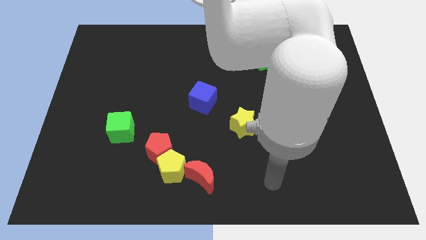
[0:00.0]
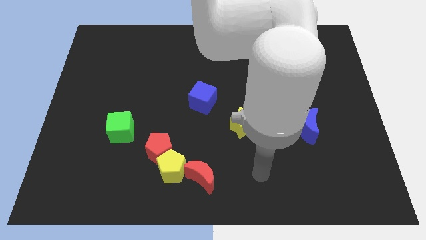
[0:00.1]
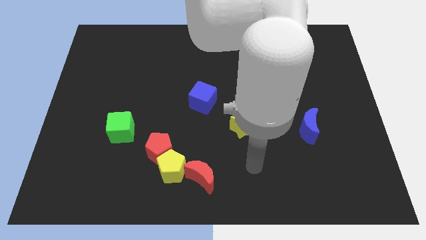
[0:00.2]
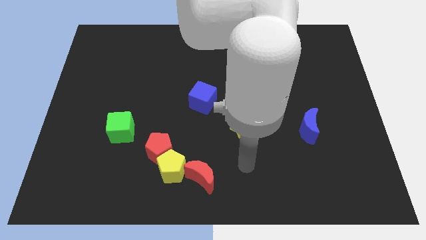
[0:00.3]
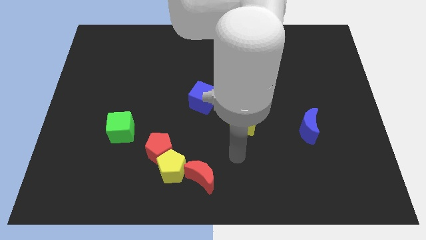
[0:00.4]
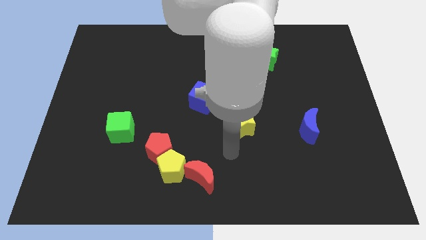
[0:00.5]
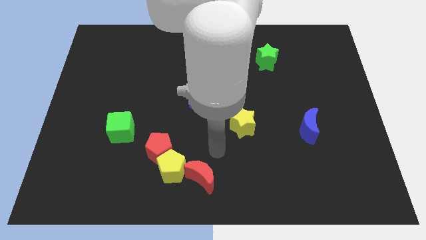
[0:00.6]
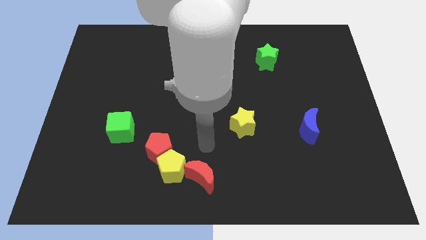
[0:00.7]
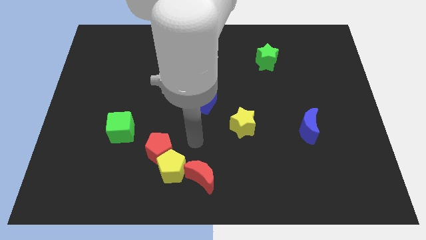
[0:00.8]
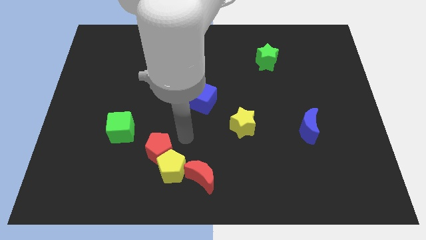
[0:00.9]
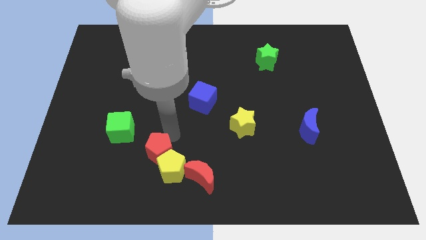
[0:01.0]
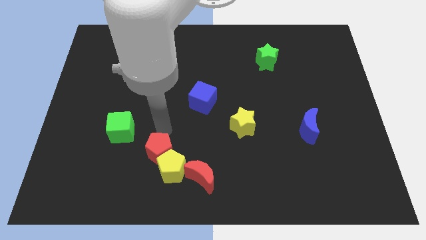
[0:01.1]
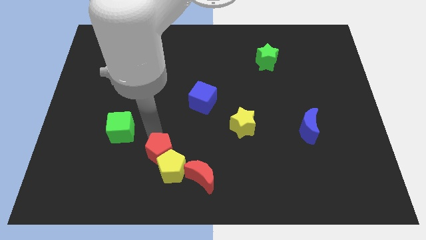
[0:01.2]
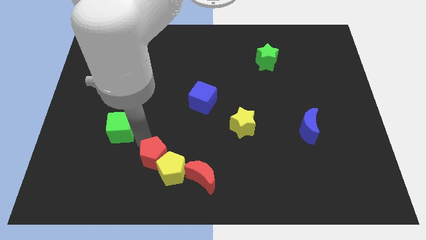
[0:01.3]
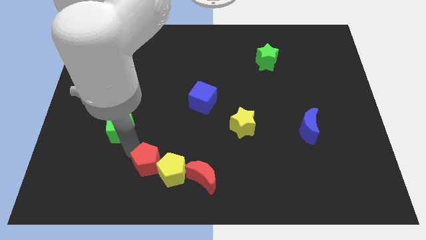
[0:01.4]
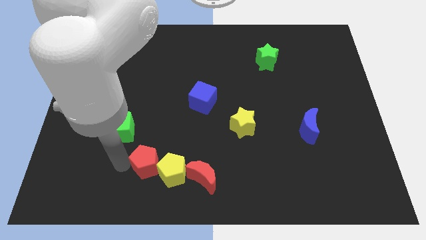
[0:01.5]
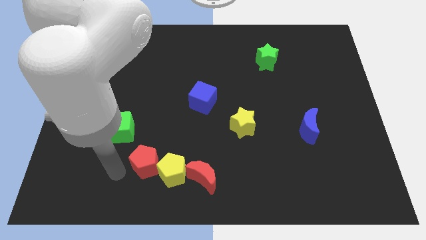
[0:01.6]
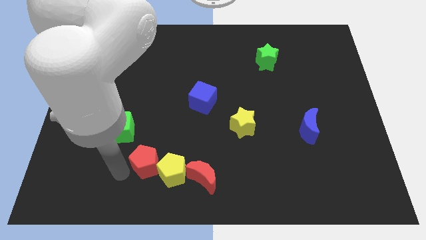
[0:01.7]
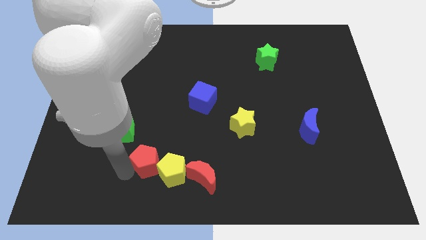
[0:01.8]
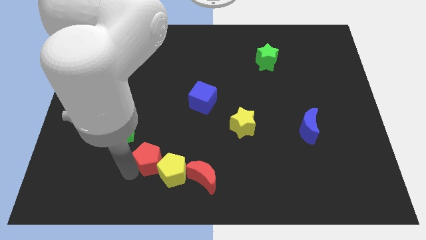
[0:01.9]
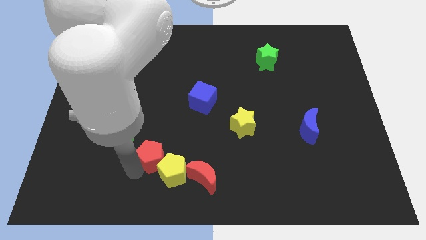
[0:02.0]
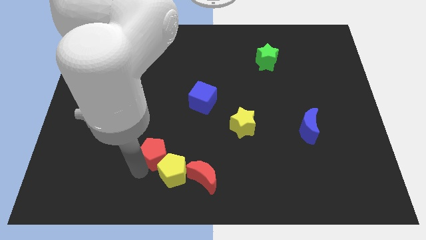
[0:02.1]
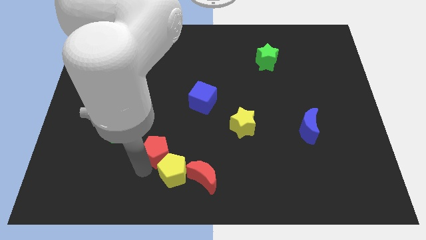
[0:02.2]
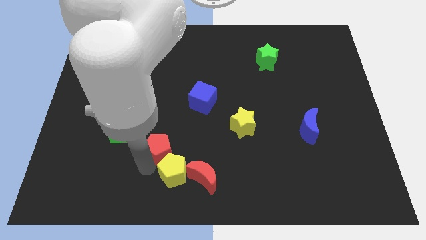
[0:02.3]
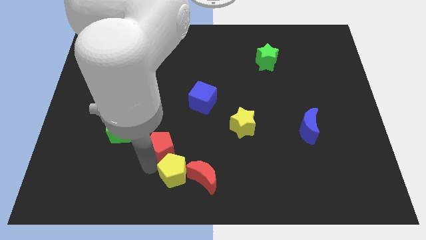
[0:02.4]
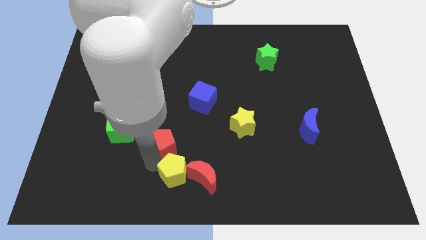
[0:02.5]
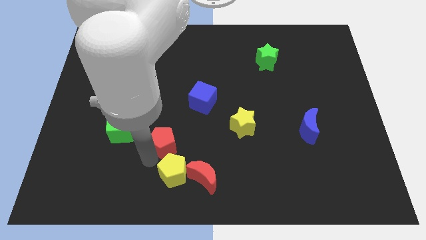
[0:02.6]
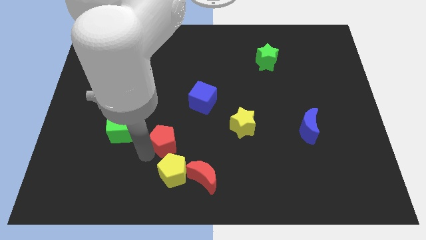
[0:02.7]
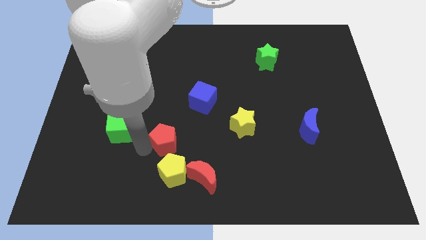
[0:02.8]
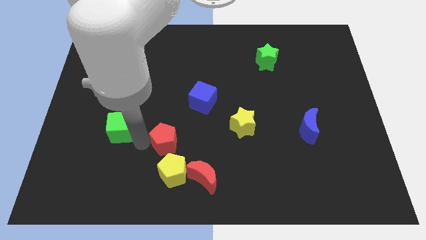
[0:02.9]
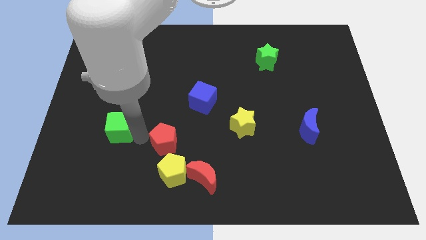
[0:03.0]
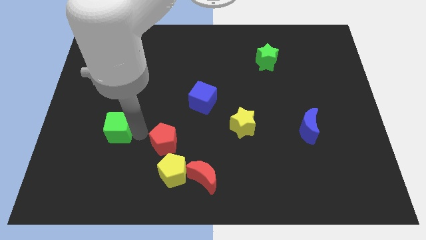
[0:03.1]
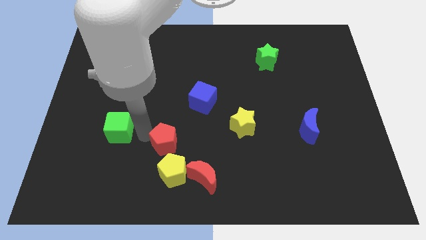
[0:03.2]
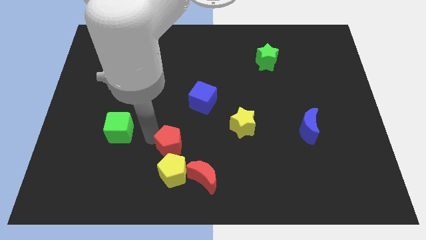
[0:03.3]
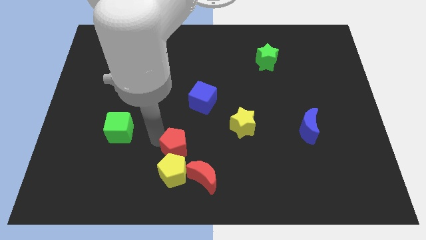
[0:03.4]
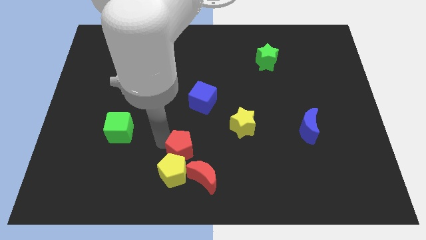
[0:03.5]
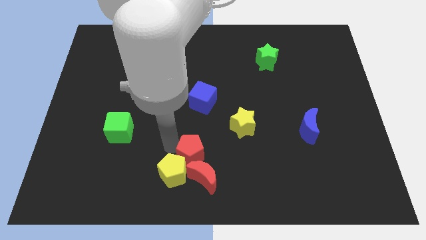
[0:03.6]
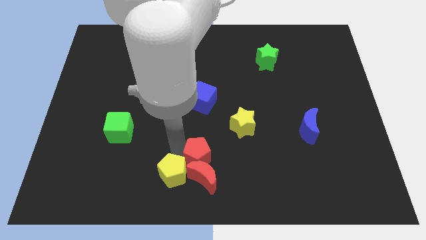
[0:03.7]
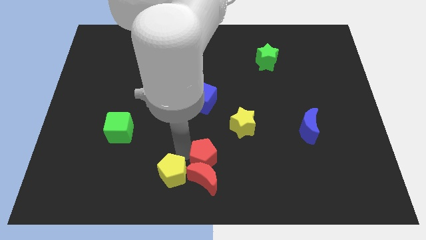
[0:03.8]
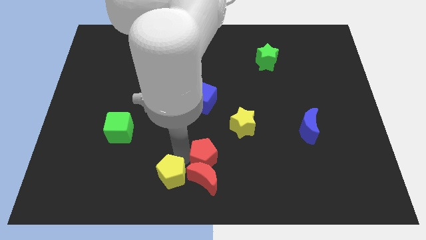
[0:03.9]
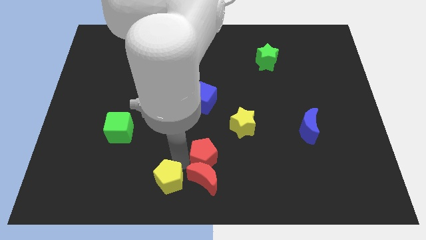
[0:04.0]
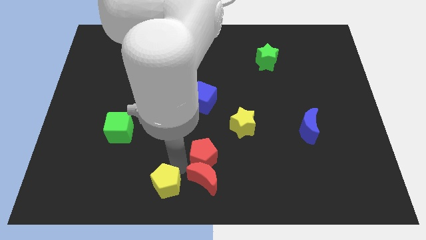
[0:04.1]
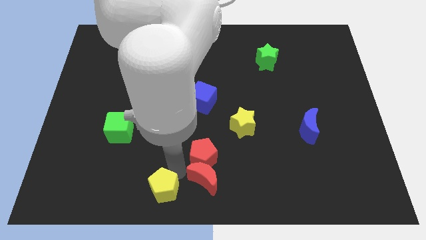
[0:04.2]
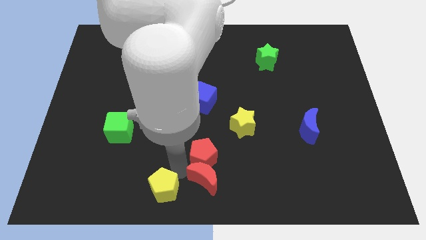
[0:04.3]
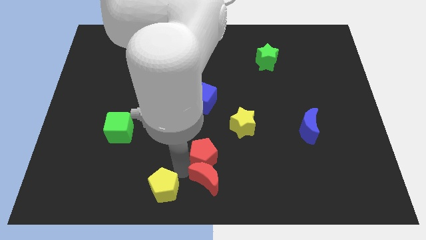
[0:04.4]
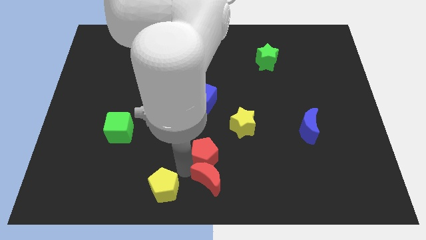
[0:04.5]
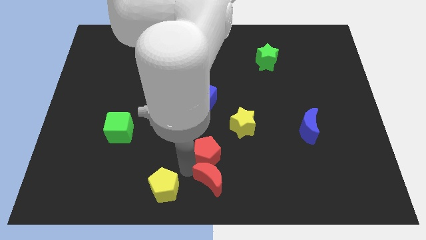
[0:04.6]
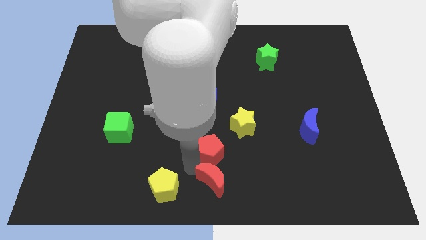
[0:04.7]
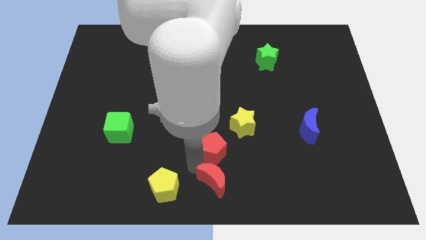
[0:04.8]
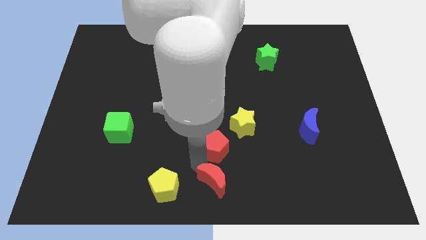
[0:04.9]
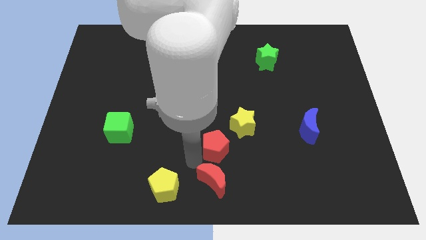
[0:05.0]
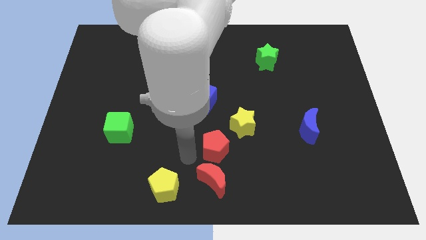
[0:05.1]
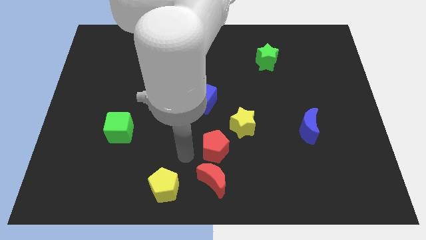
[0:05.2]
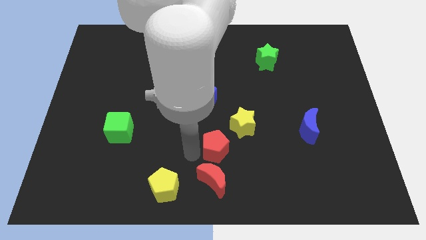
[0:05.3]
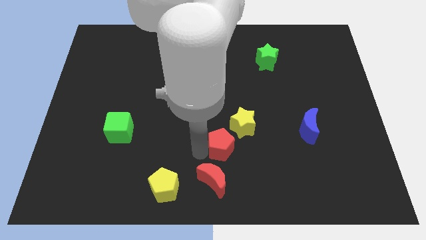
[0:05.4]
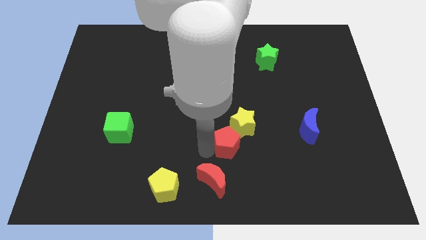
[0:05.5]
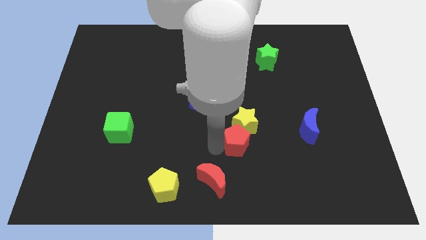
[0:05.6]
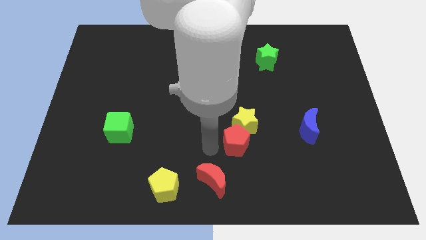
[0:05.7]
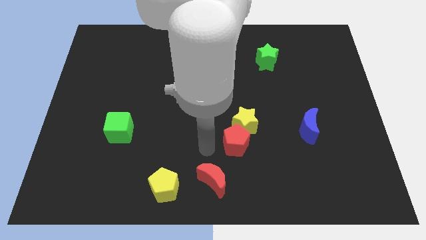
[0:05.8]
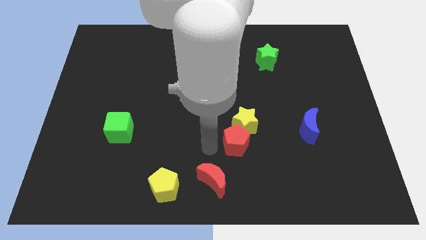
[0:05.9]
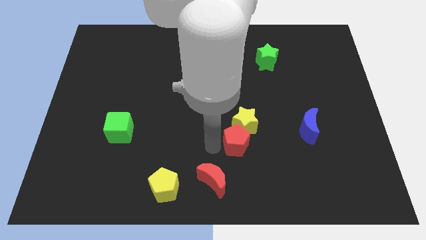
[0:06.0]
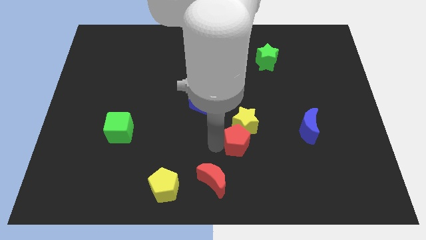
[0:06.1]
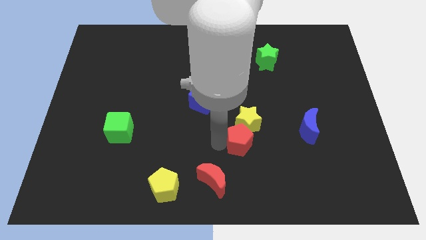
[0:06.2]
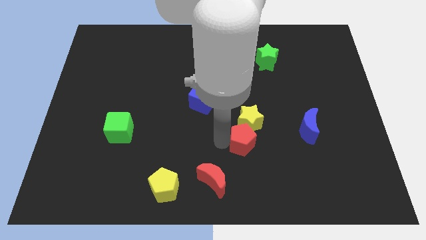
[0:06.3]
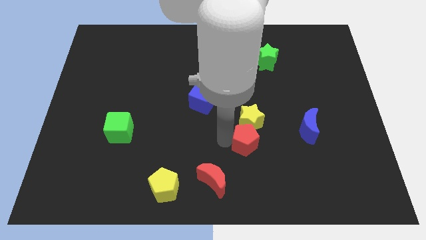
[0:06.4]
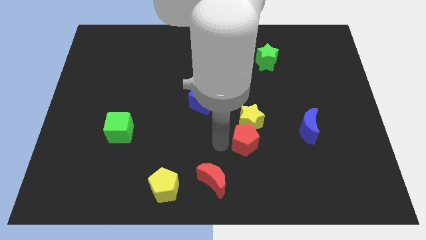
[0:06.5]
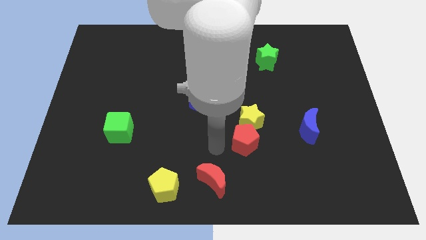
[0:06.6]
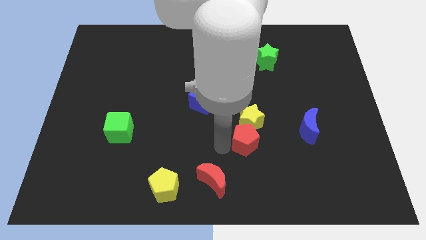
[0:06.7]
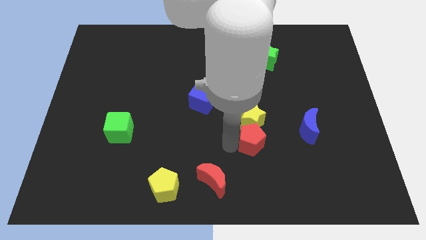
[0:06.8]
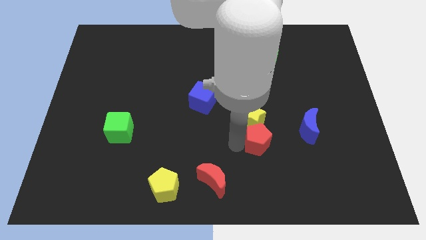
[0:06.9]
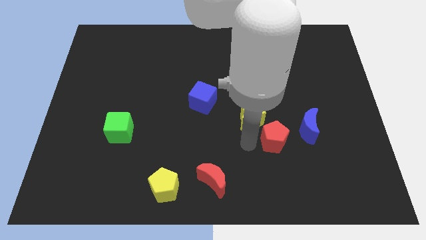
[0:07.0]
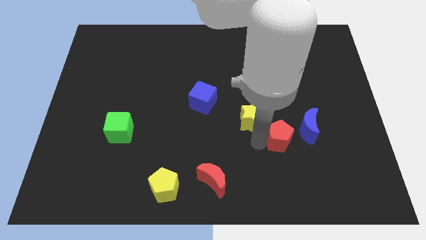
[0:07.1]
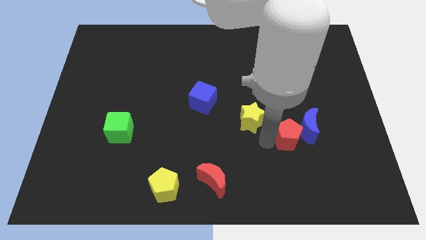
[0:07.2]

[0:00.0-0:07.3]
slide the red pentagon towards the blue moon

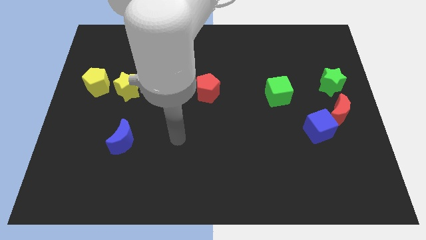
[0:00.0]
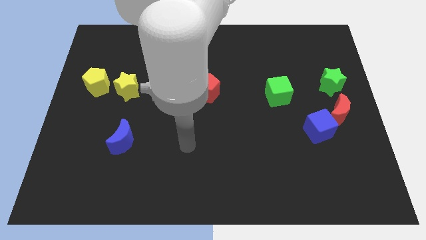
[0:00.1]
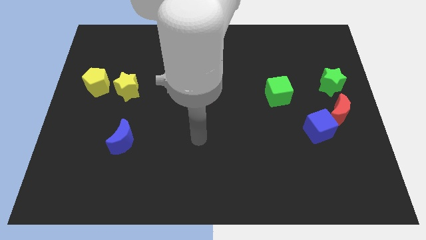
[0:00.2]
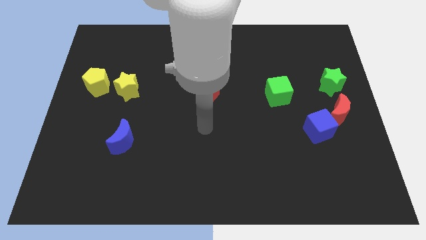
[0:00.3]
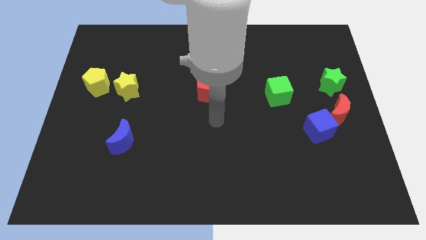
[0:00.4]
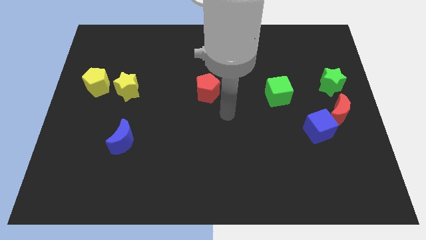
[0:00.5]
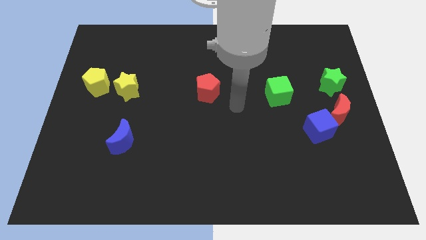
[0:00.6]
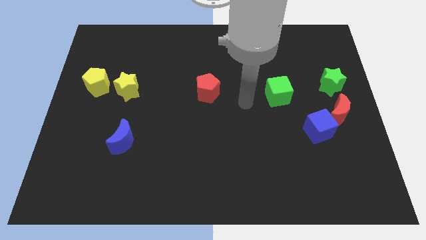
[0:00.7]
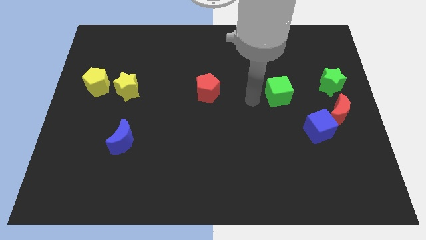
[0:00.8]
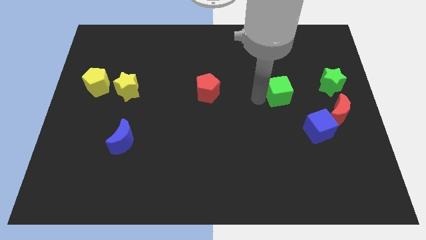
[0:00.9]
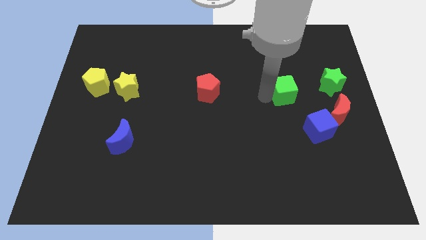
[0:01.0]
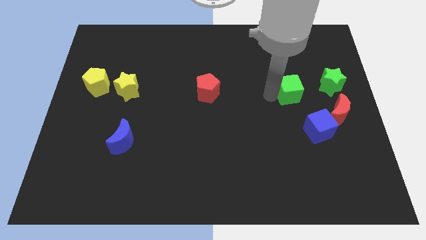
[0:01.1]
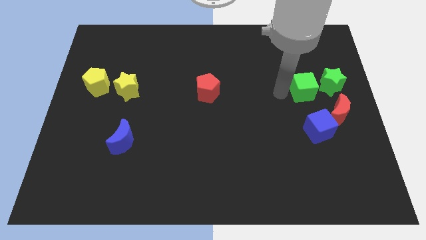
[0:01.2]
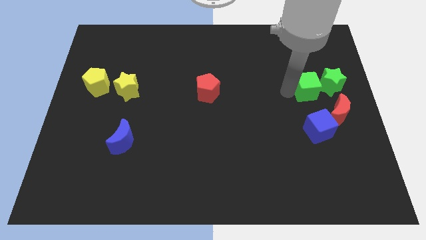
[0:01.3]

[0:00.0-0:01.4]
move the green cube towards the green star
